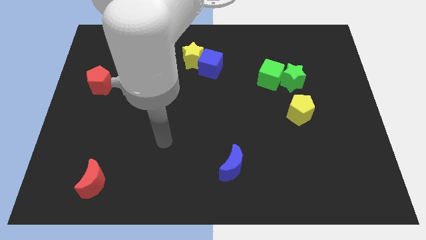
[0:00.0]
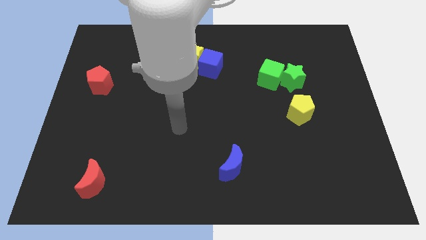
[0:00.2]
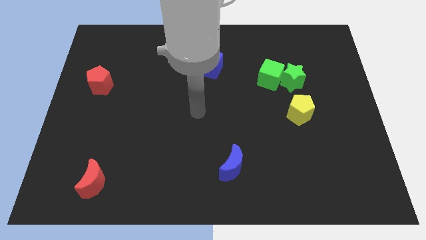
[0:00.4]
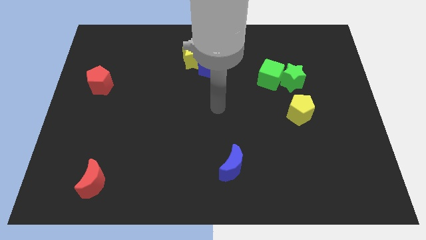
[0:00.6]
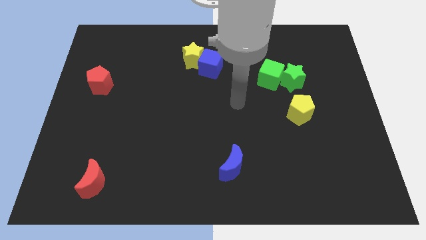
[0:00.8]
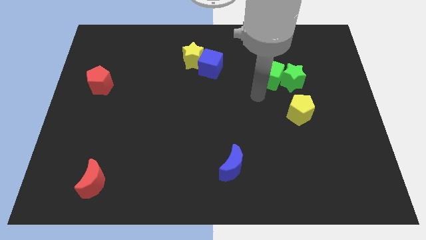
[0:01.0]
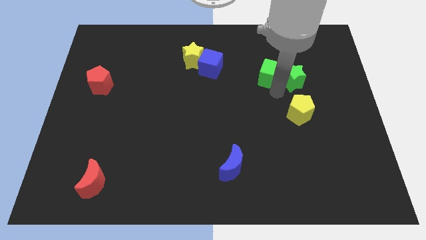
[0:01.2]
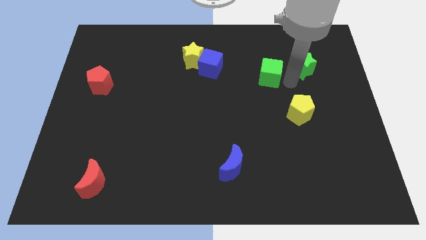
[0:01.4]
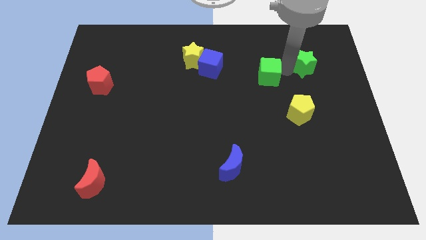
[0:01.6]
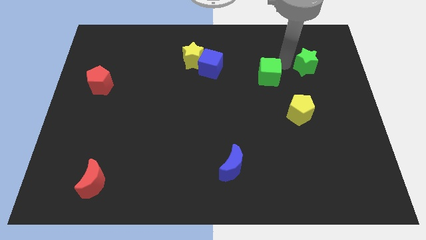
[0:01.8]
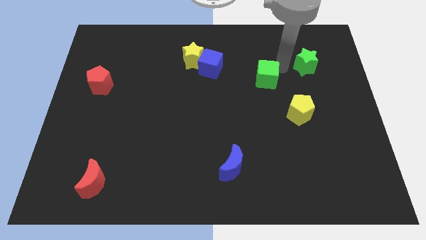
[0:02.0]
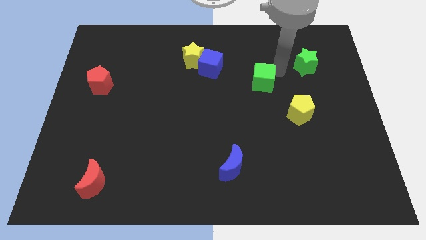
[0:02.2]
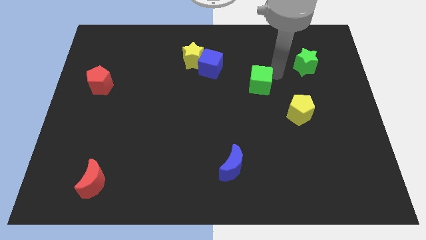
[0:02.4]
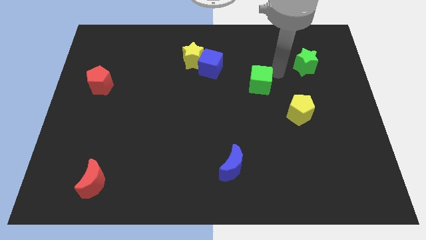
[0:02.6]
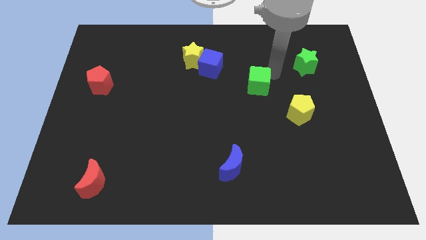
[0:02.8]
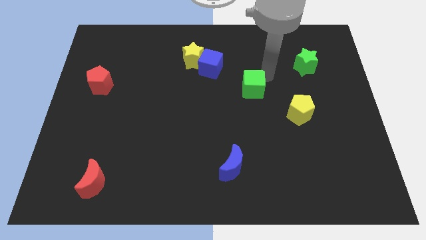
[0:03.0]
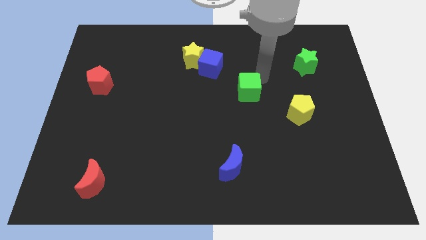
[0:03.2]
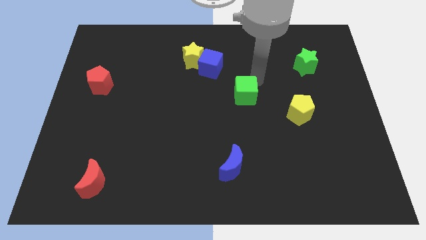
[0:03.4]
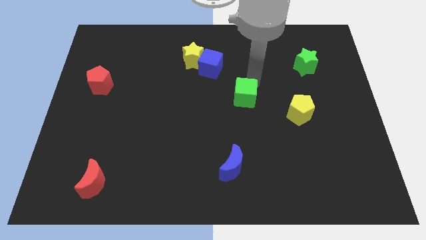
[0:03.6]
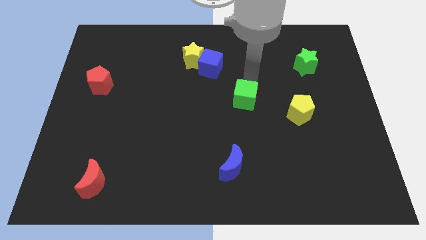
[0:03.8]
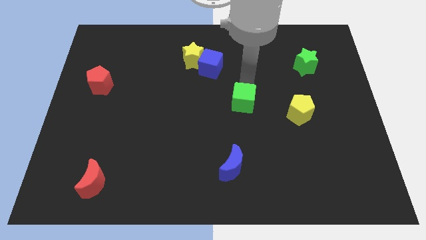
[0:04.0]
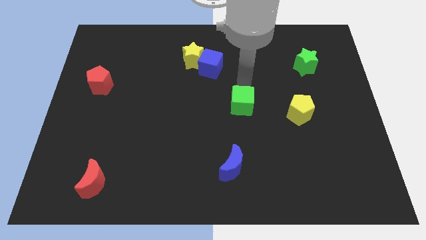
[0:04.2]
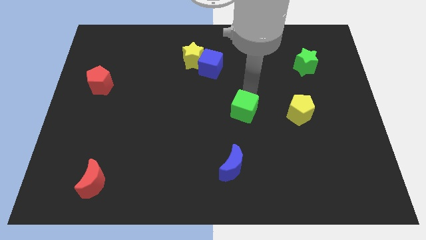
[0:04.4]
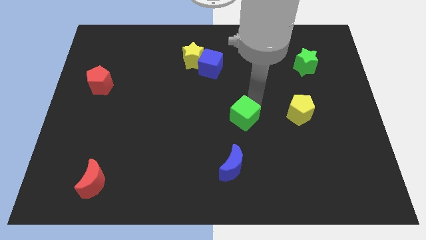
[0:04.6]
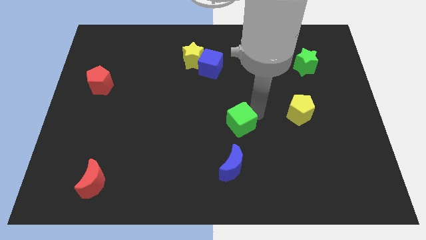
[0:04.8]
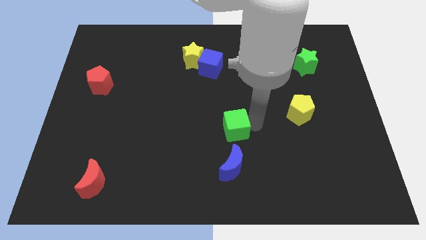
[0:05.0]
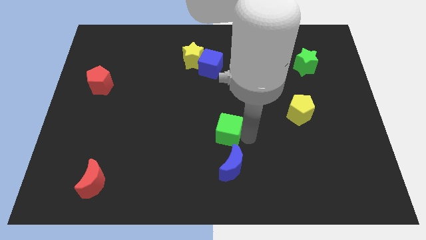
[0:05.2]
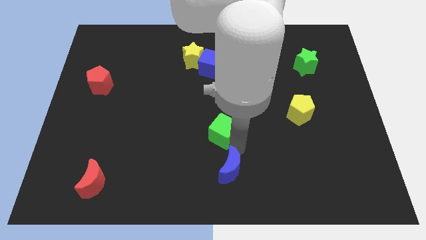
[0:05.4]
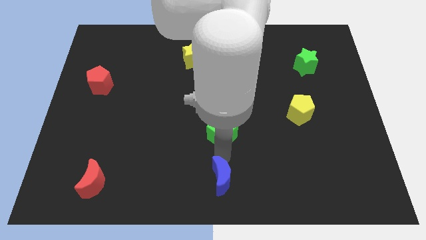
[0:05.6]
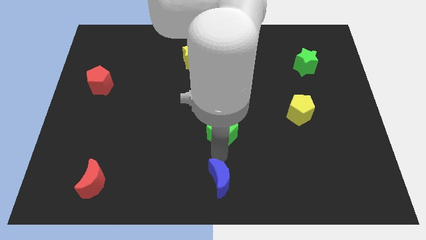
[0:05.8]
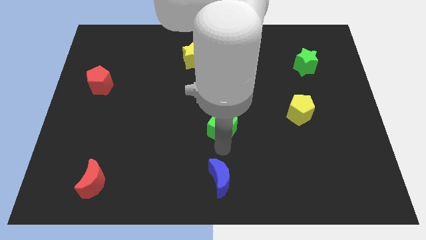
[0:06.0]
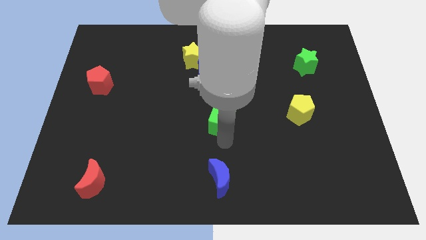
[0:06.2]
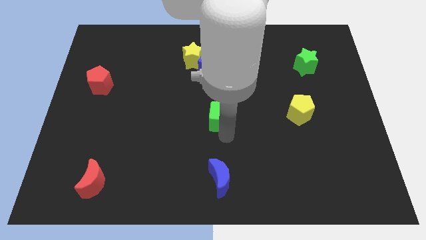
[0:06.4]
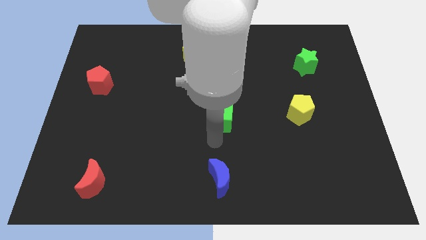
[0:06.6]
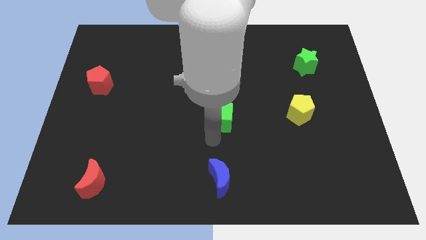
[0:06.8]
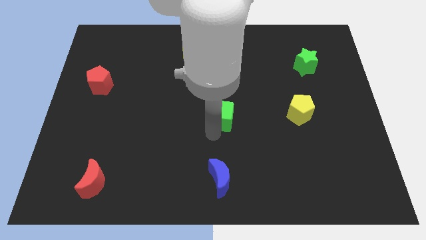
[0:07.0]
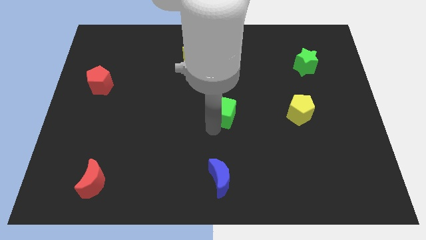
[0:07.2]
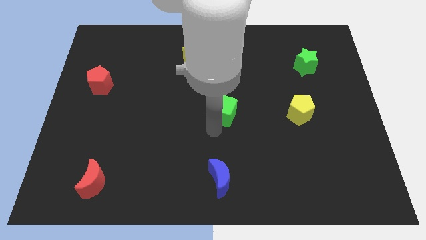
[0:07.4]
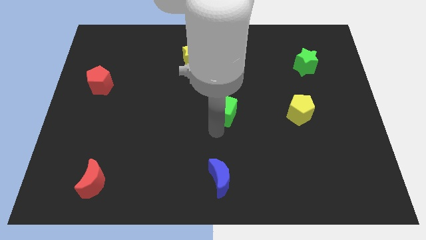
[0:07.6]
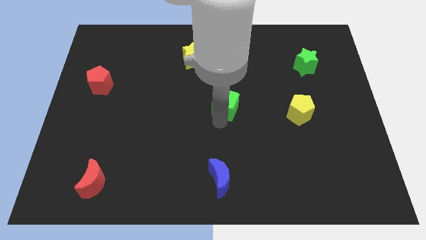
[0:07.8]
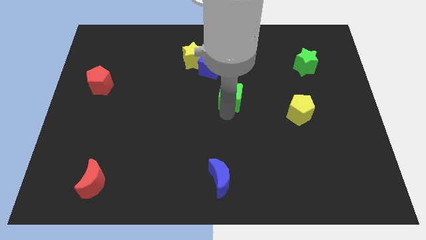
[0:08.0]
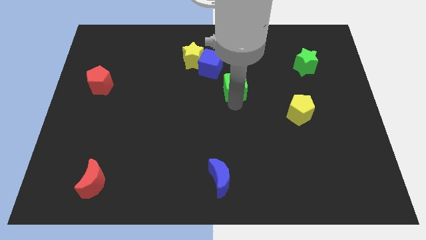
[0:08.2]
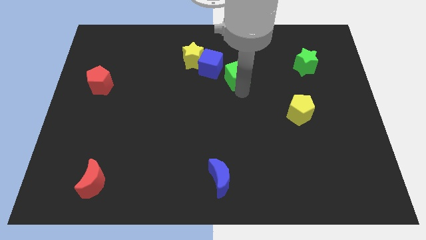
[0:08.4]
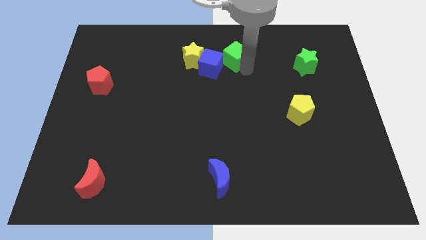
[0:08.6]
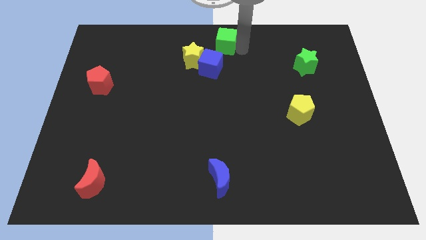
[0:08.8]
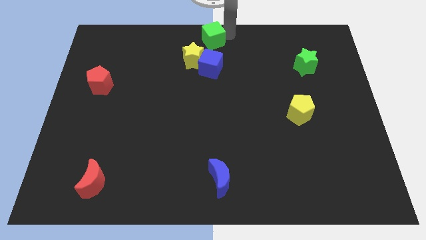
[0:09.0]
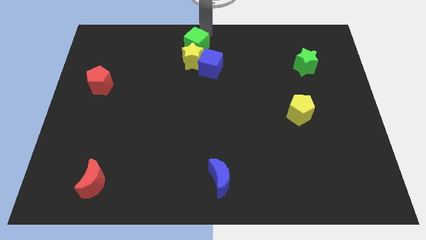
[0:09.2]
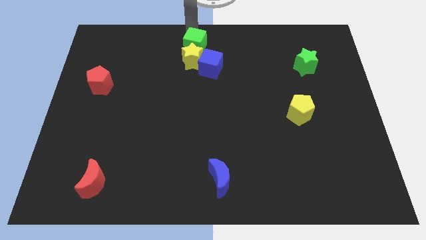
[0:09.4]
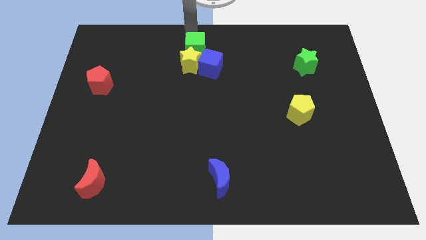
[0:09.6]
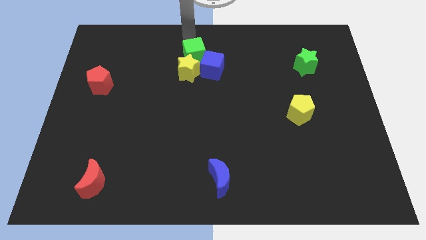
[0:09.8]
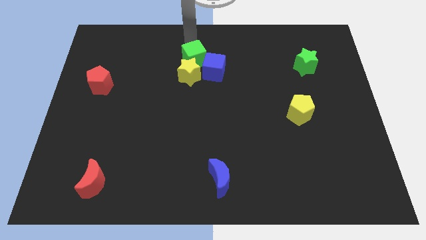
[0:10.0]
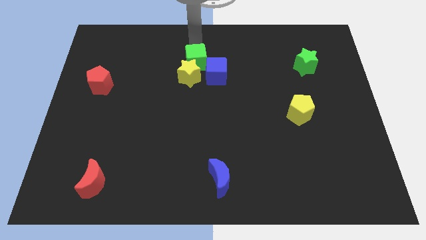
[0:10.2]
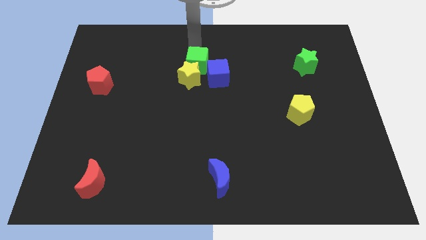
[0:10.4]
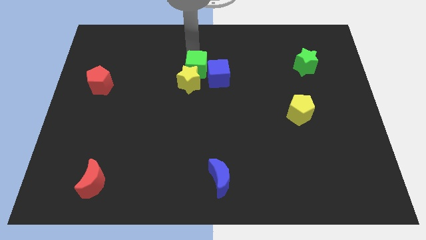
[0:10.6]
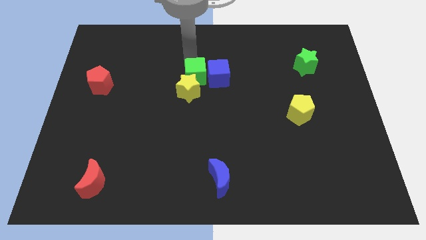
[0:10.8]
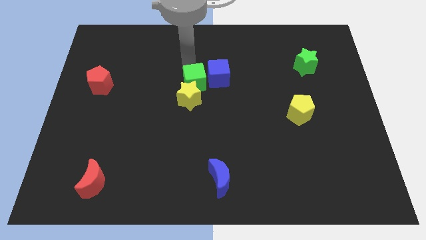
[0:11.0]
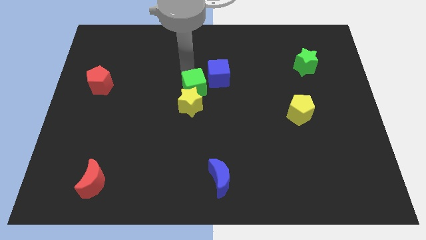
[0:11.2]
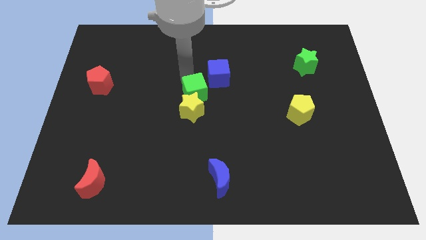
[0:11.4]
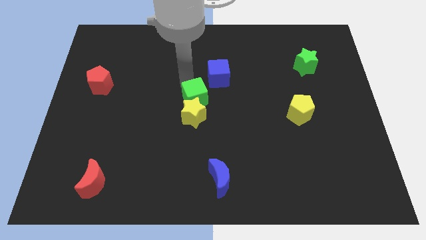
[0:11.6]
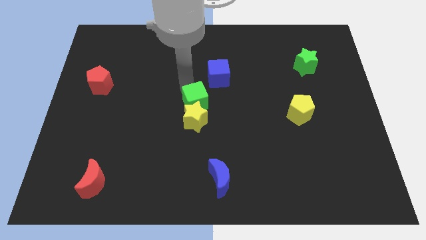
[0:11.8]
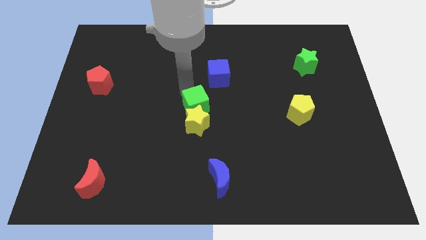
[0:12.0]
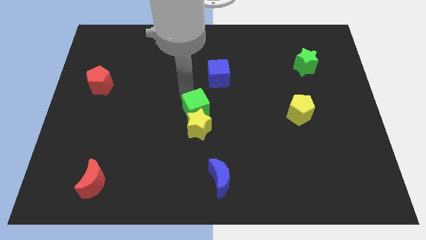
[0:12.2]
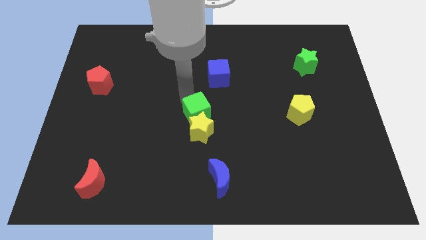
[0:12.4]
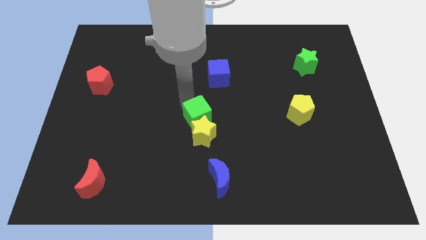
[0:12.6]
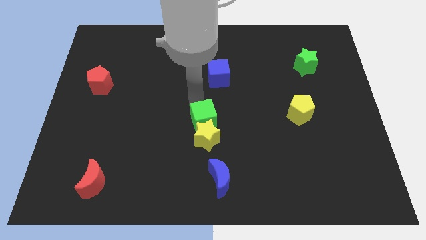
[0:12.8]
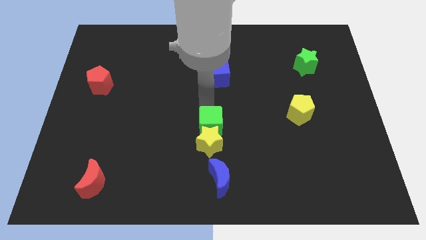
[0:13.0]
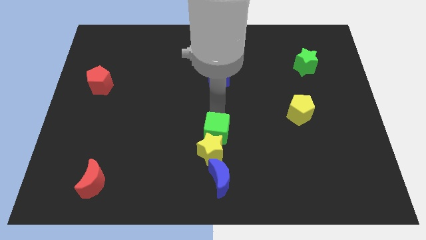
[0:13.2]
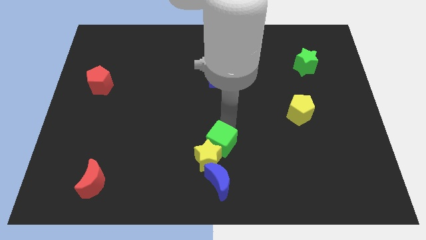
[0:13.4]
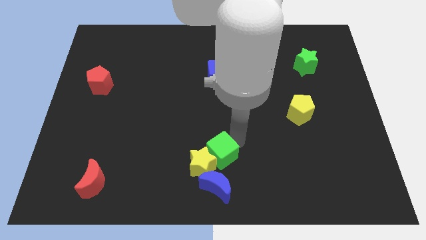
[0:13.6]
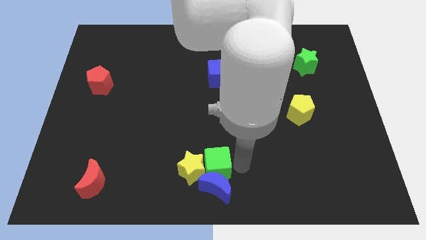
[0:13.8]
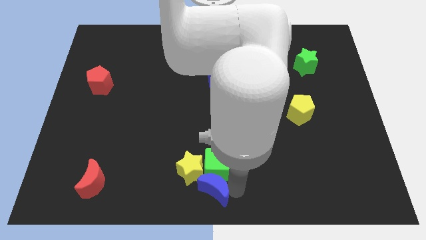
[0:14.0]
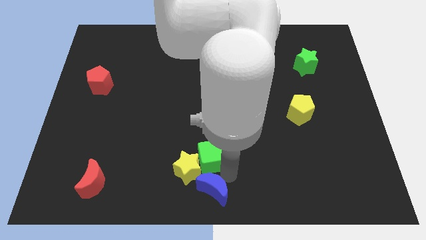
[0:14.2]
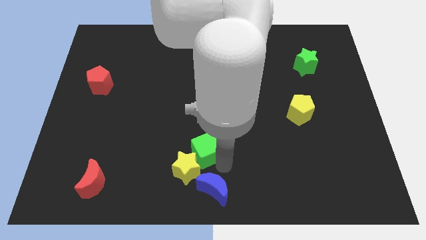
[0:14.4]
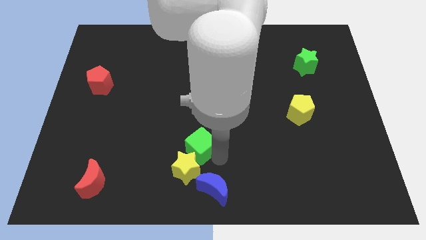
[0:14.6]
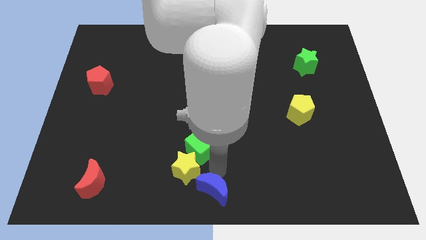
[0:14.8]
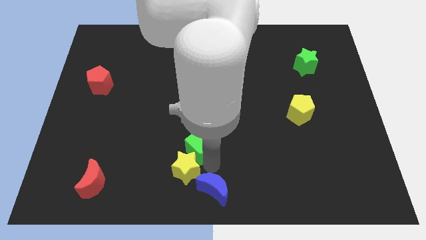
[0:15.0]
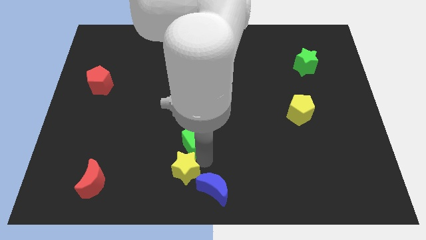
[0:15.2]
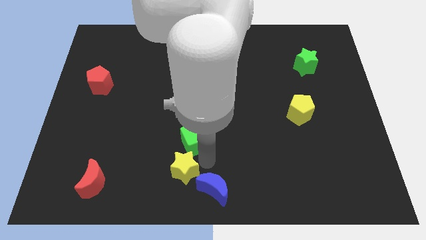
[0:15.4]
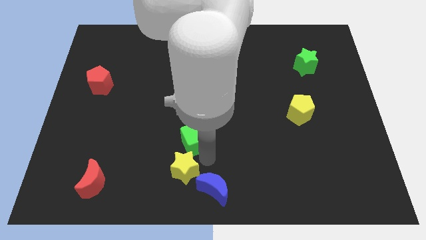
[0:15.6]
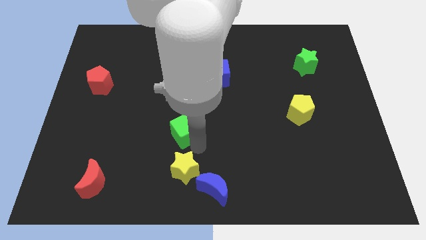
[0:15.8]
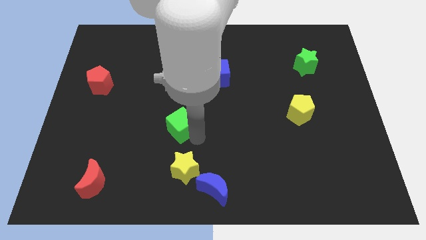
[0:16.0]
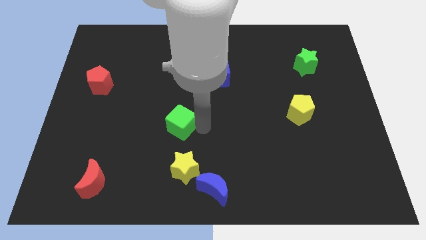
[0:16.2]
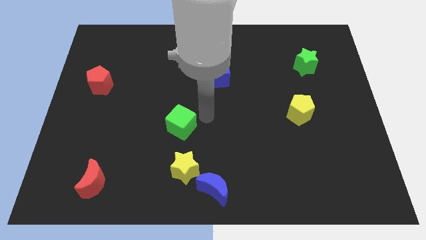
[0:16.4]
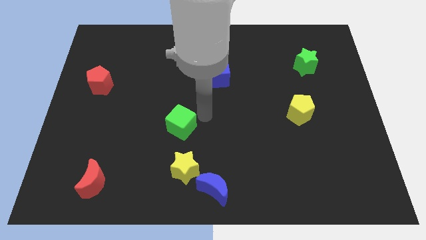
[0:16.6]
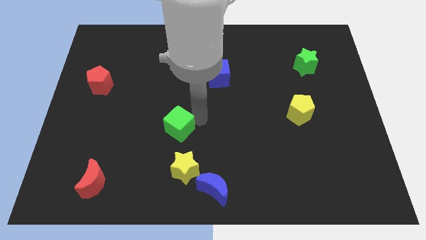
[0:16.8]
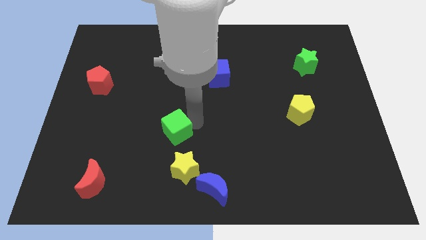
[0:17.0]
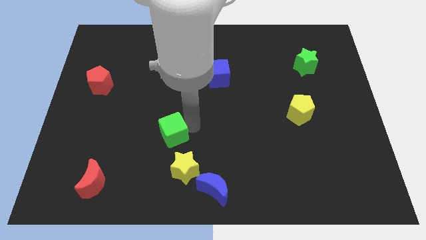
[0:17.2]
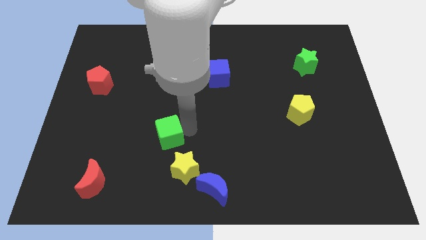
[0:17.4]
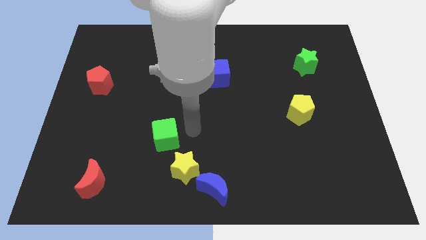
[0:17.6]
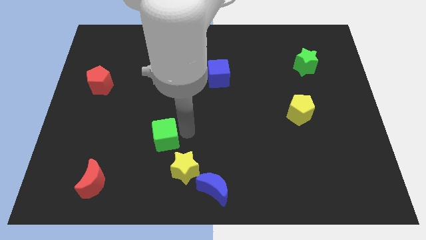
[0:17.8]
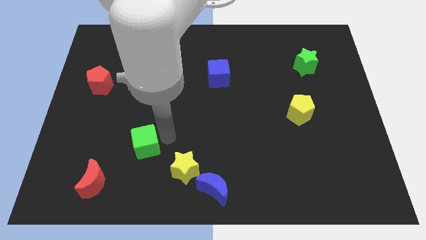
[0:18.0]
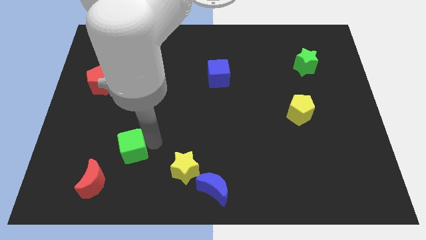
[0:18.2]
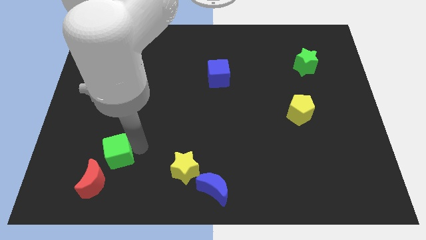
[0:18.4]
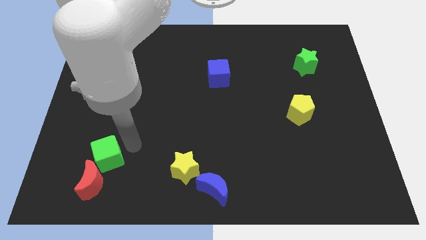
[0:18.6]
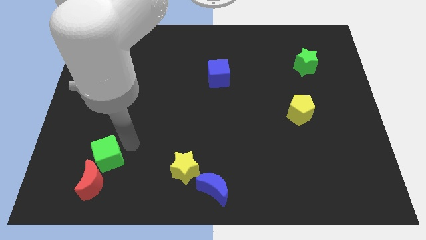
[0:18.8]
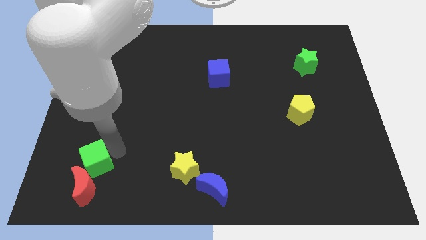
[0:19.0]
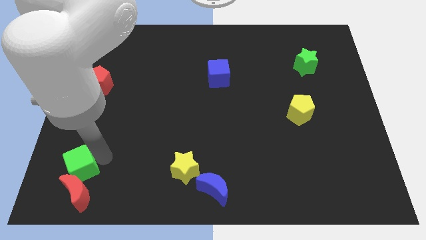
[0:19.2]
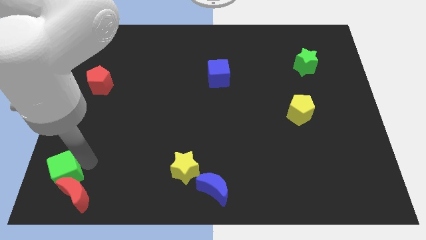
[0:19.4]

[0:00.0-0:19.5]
move the green cube to the bottom left of the board
